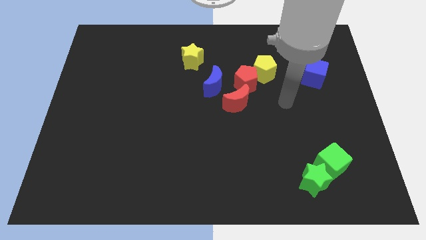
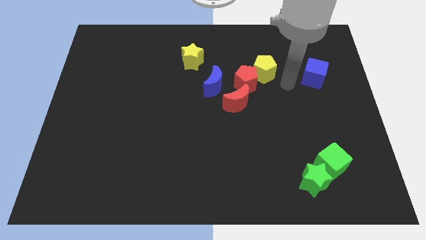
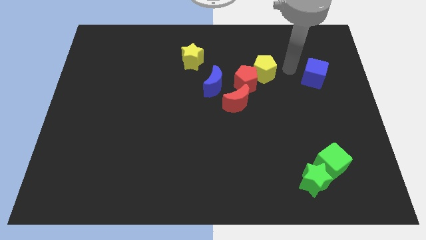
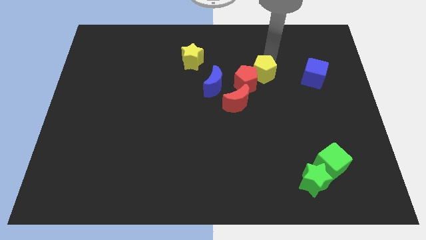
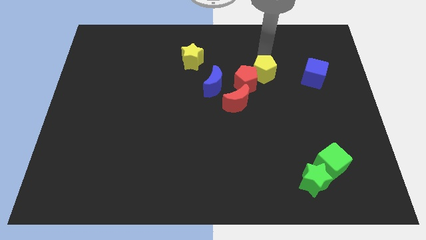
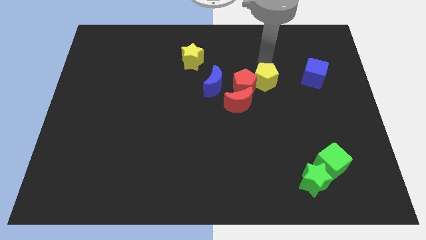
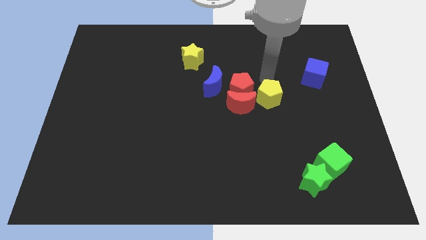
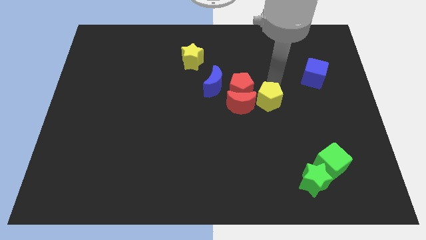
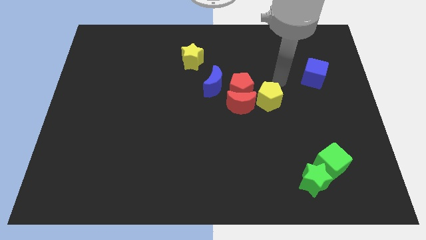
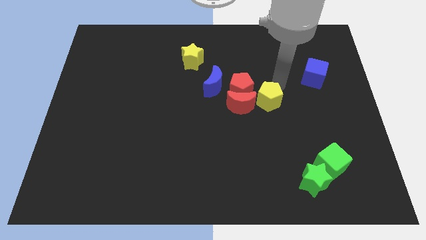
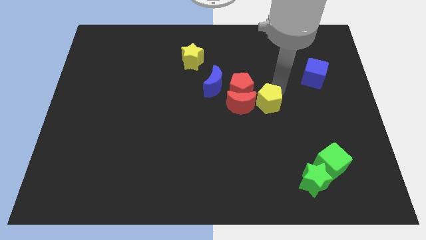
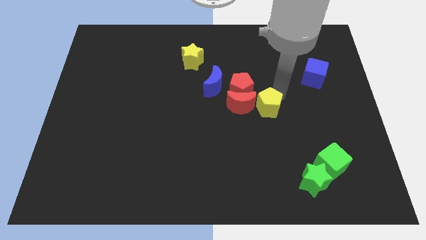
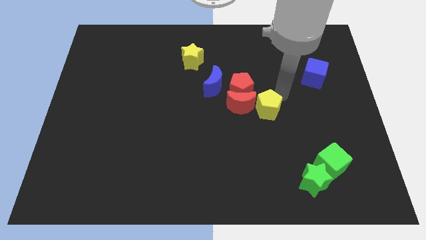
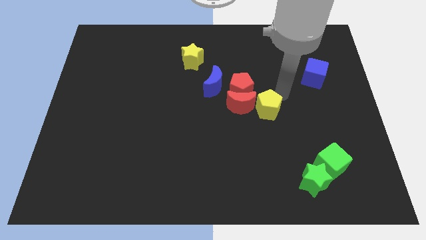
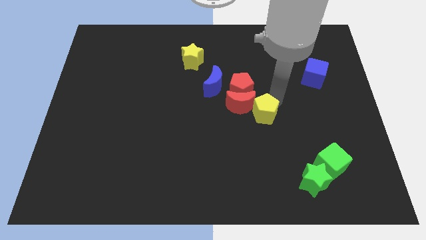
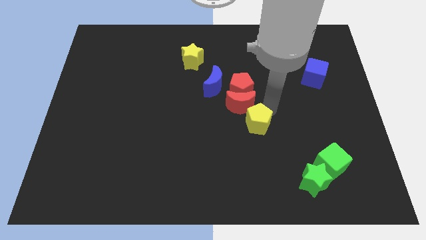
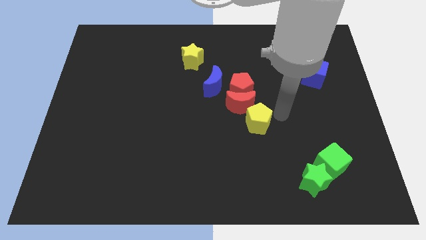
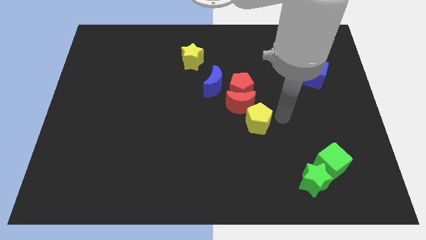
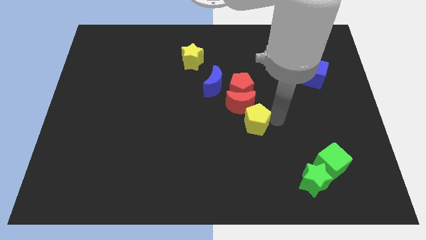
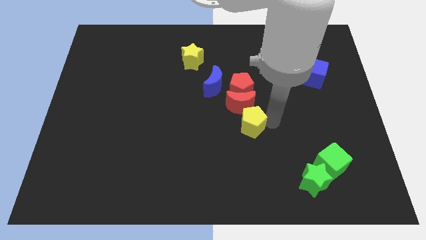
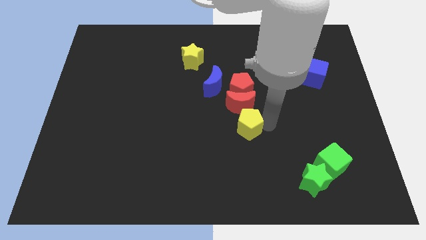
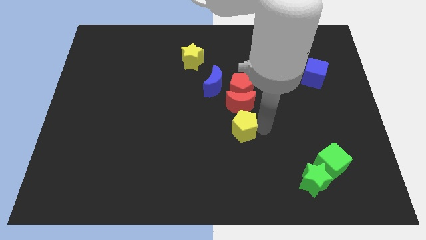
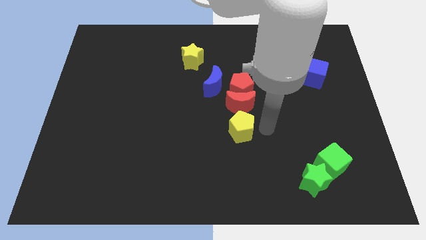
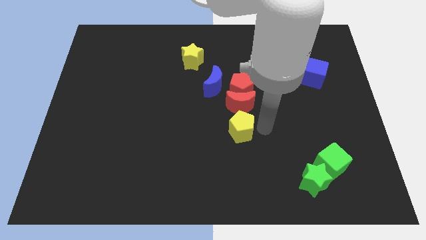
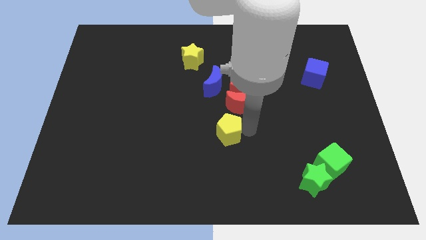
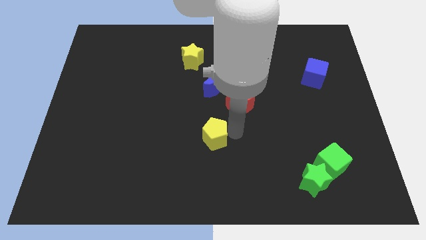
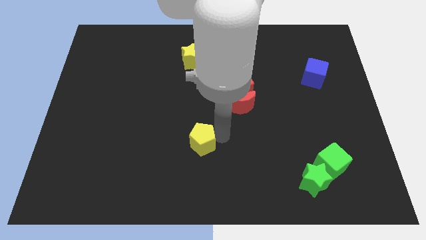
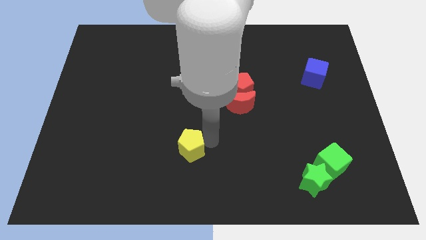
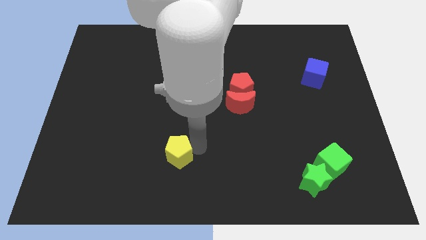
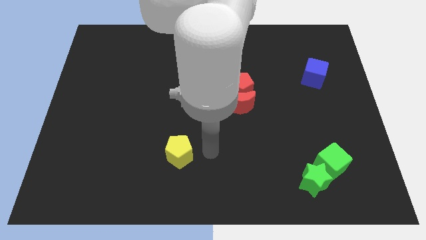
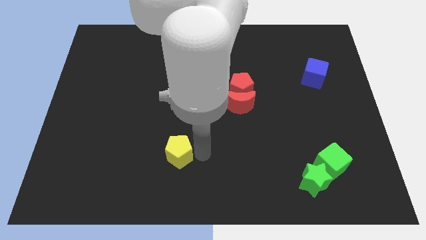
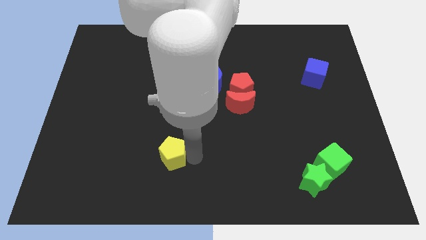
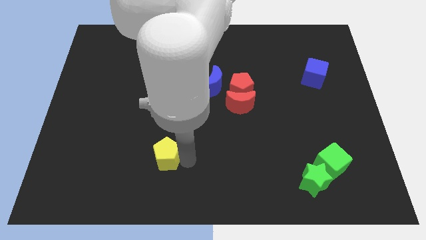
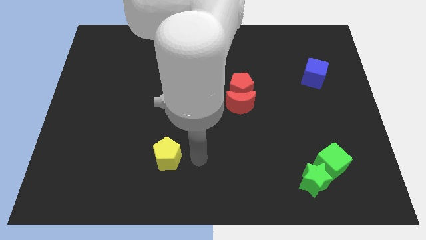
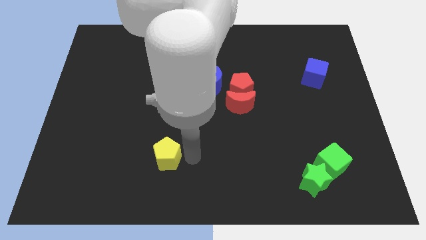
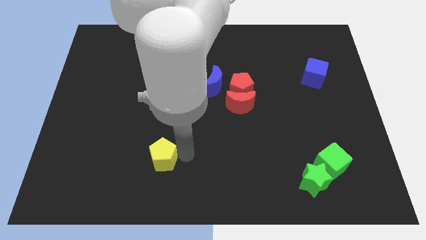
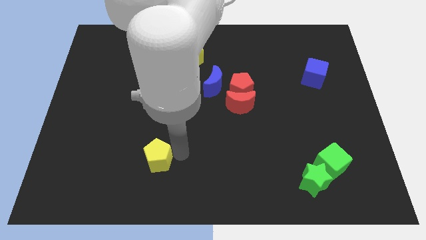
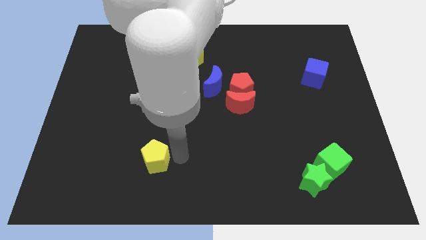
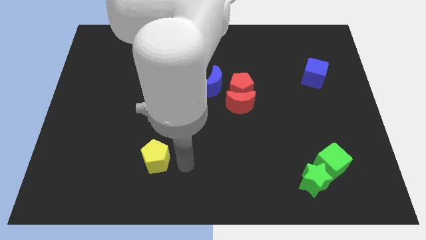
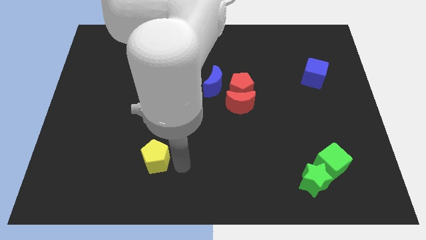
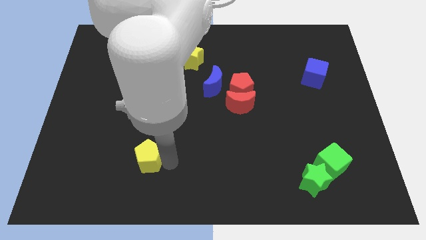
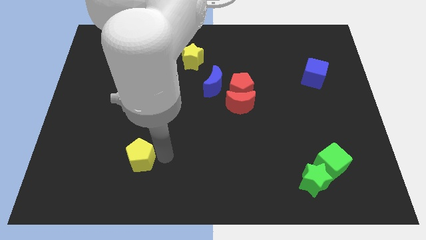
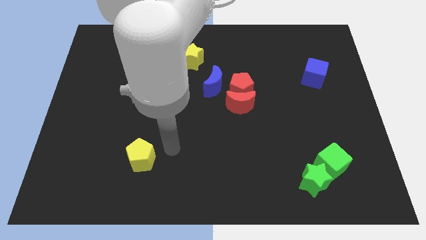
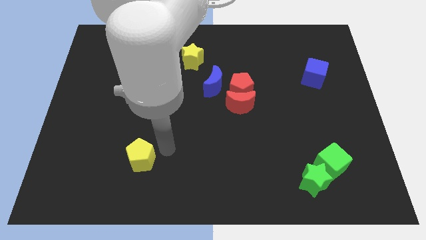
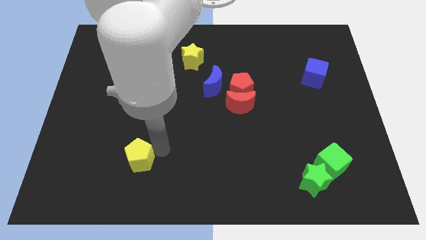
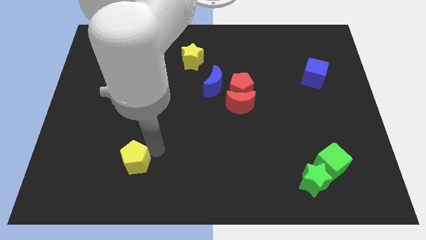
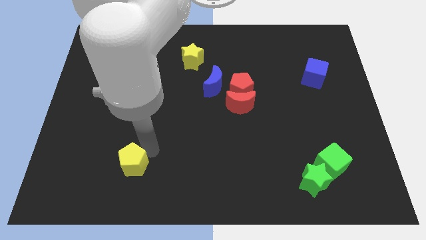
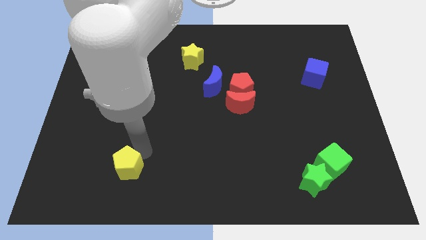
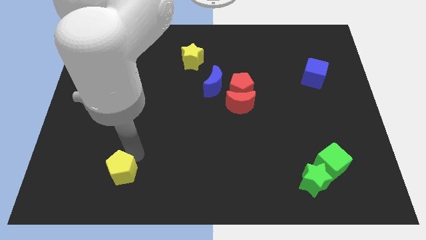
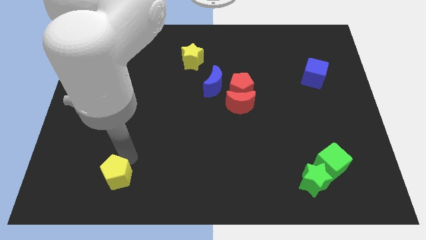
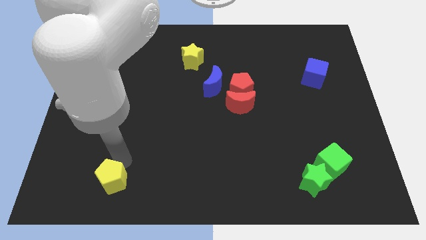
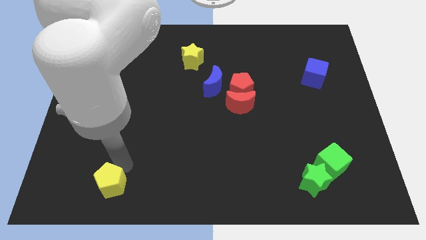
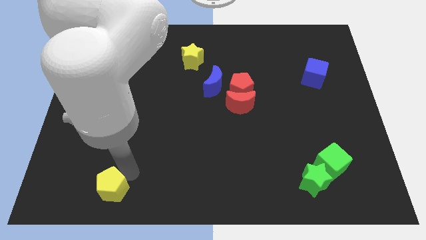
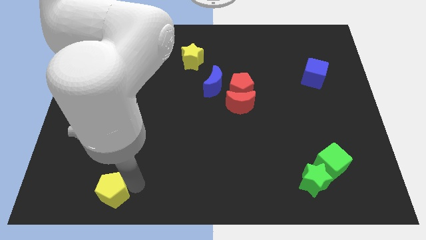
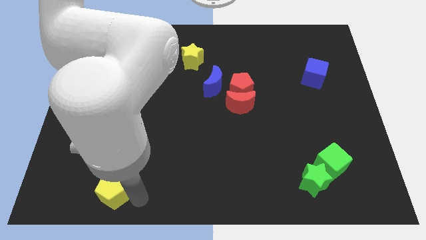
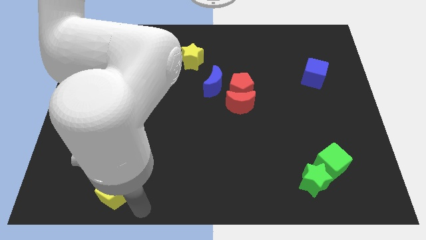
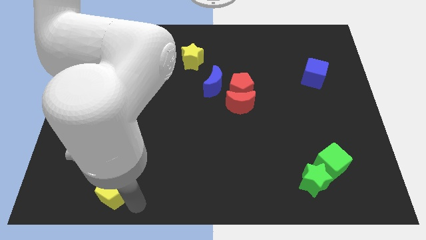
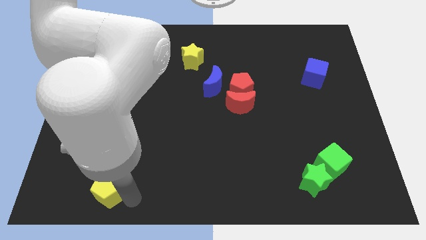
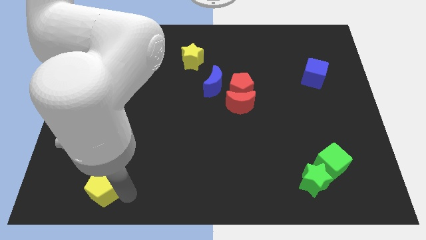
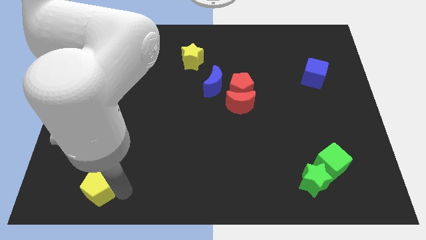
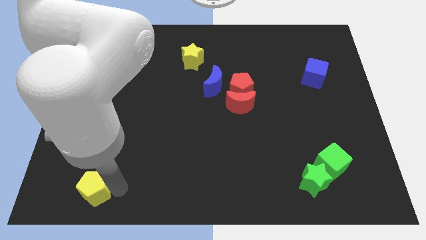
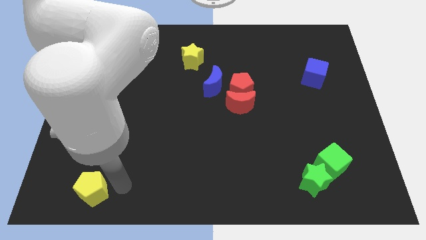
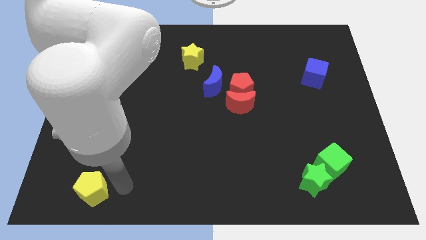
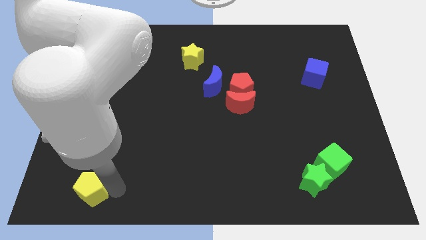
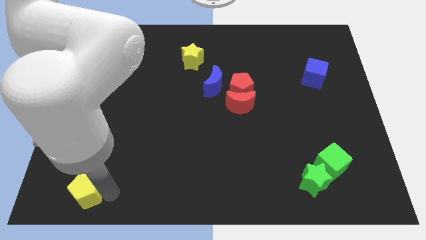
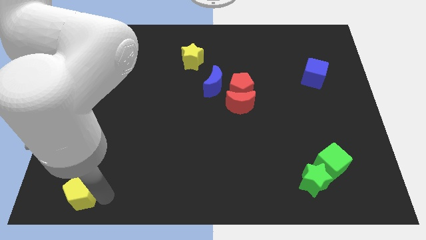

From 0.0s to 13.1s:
put the yellow pentagon to the bottom left corner
